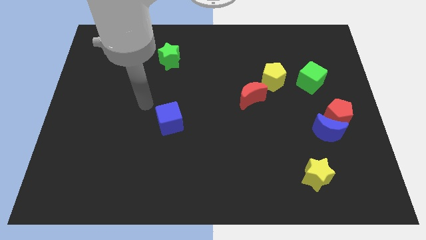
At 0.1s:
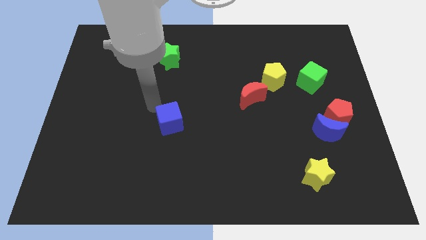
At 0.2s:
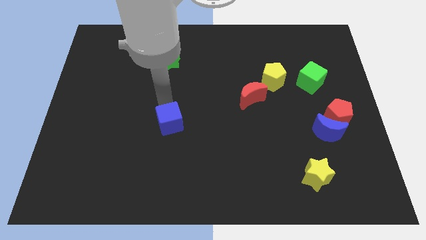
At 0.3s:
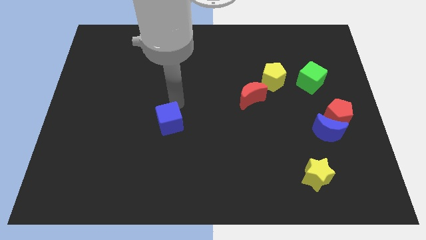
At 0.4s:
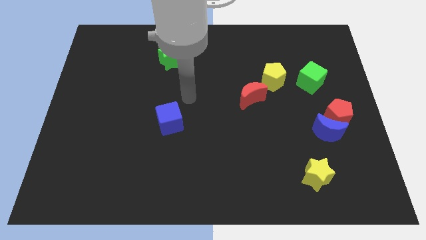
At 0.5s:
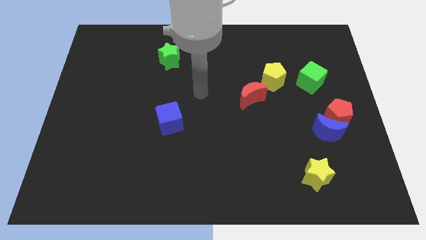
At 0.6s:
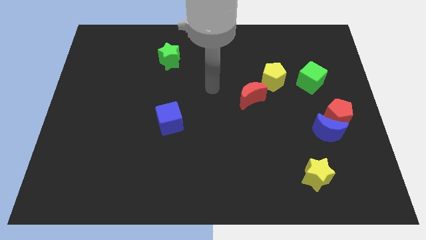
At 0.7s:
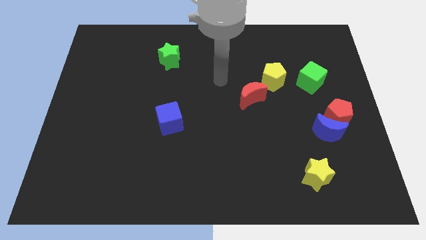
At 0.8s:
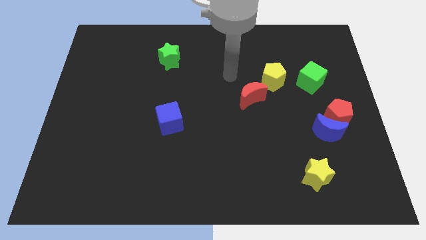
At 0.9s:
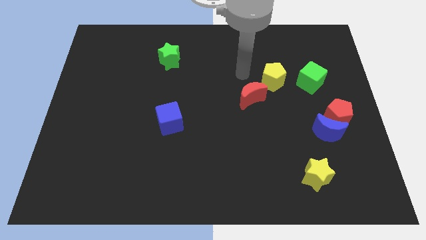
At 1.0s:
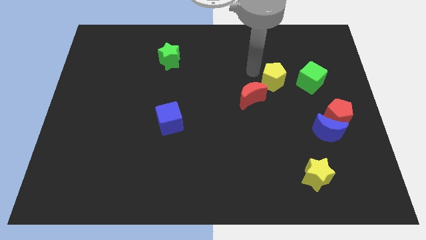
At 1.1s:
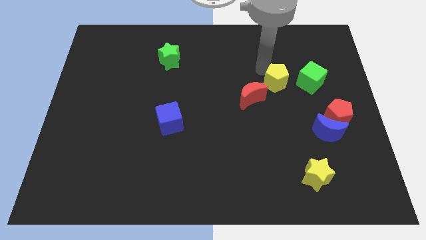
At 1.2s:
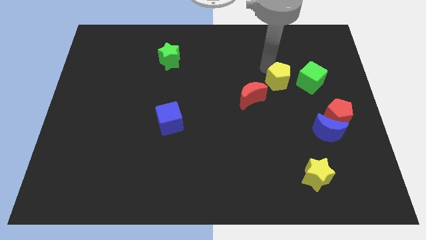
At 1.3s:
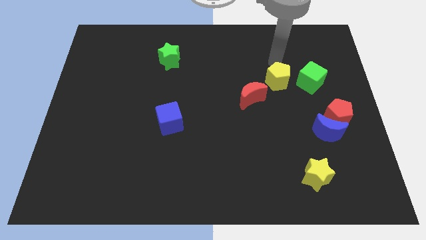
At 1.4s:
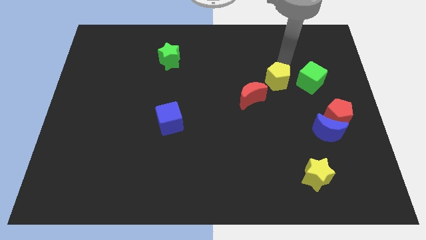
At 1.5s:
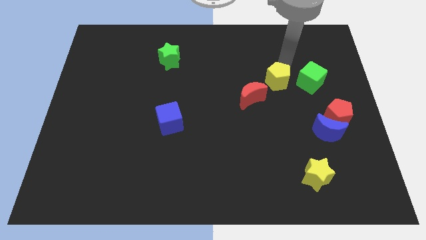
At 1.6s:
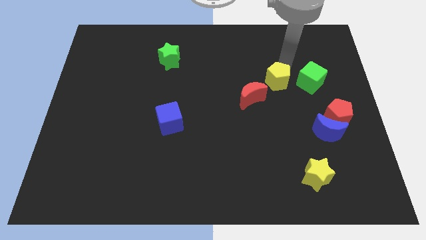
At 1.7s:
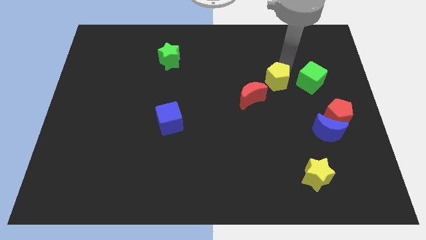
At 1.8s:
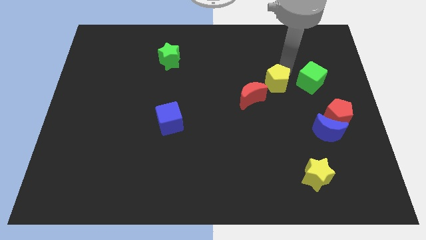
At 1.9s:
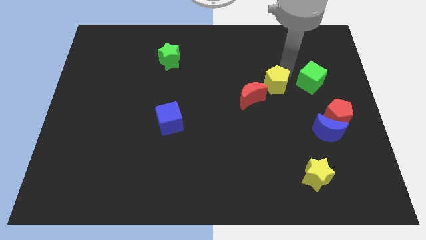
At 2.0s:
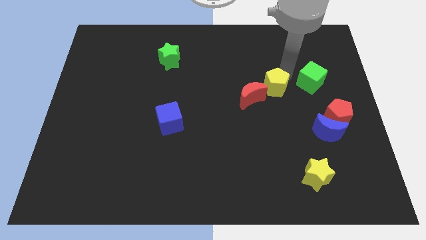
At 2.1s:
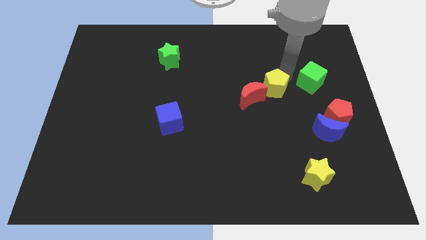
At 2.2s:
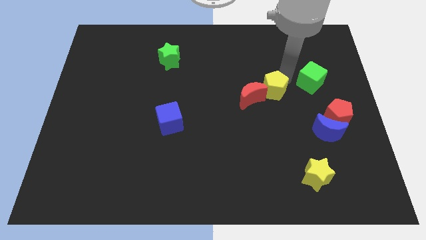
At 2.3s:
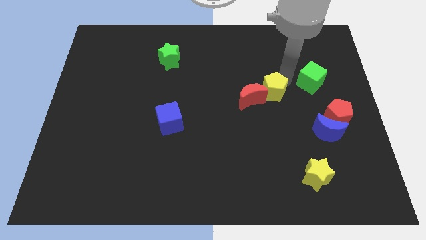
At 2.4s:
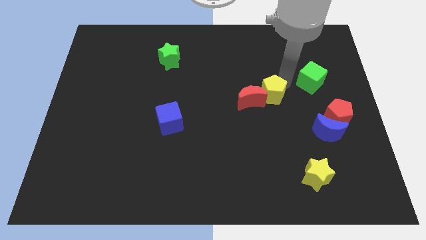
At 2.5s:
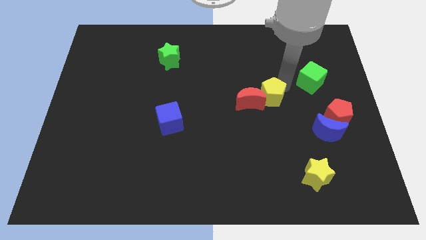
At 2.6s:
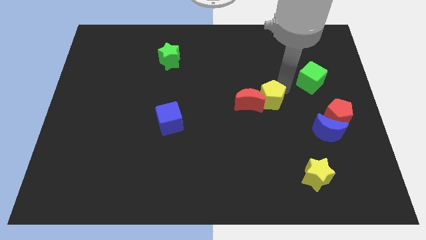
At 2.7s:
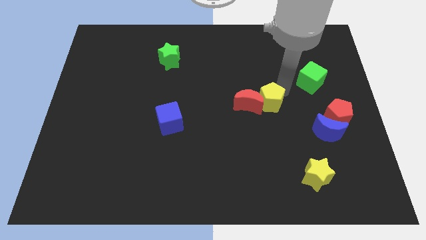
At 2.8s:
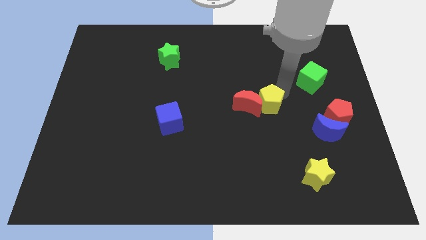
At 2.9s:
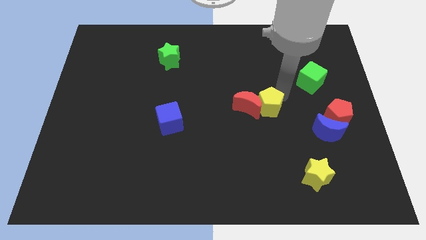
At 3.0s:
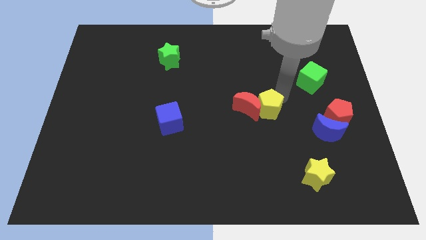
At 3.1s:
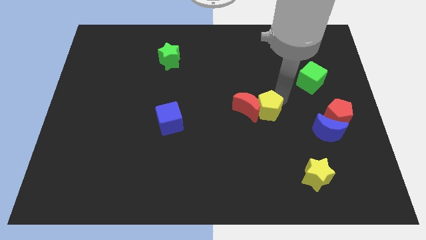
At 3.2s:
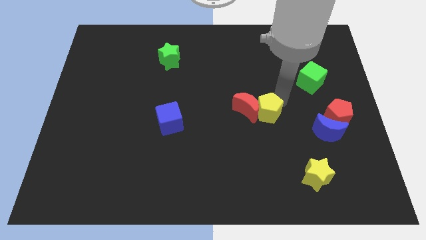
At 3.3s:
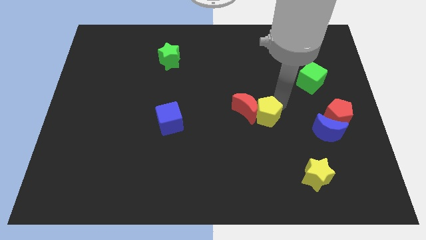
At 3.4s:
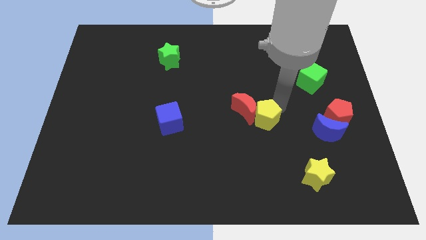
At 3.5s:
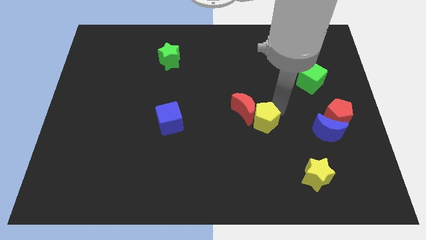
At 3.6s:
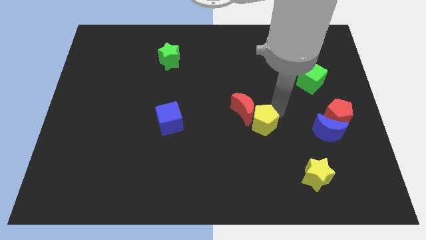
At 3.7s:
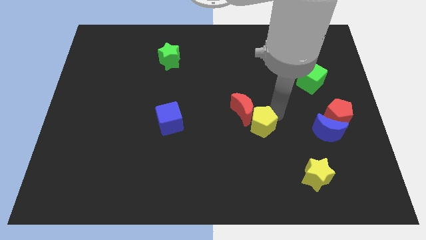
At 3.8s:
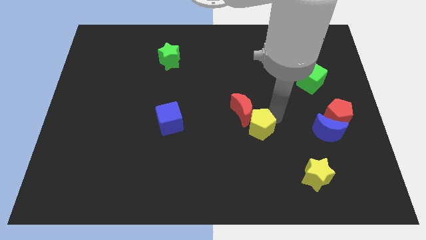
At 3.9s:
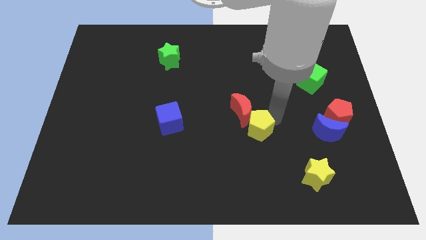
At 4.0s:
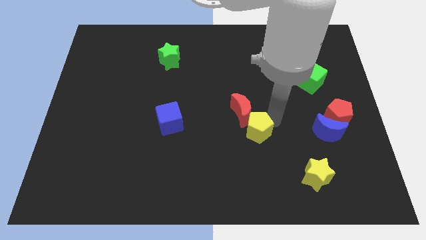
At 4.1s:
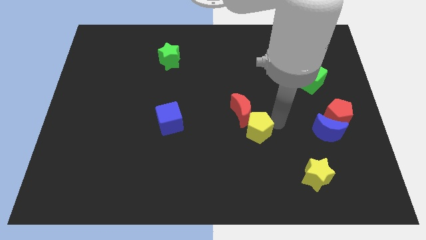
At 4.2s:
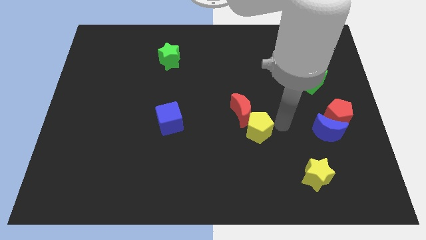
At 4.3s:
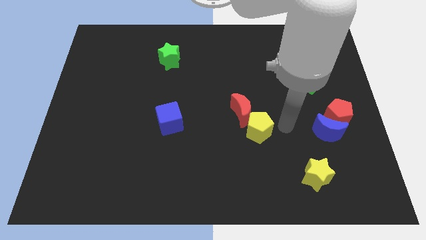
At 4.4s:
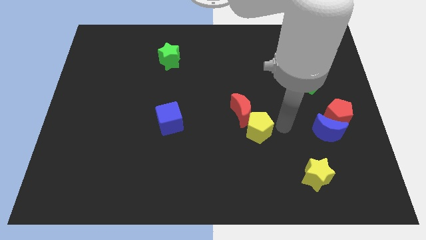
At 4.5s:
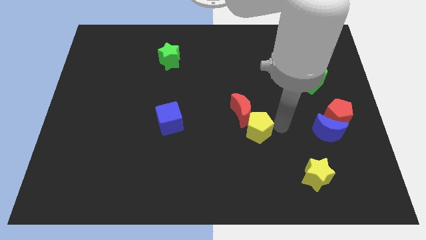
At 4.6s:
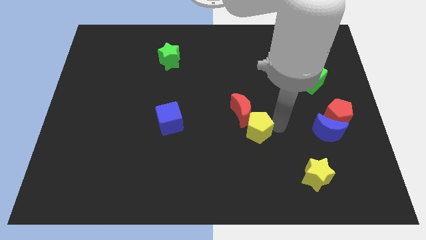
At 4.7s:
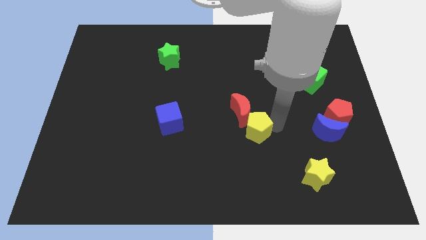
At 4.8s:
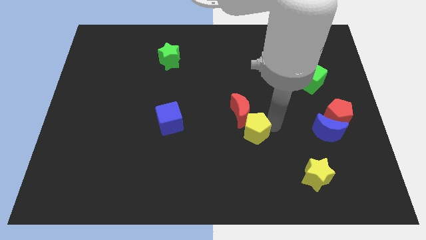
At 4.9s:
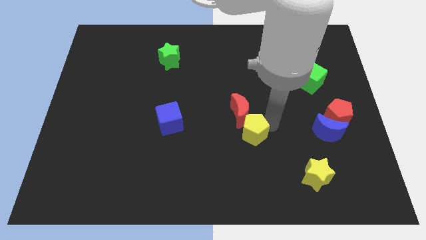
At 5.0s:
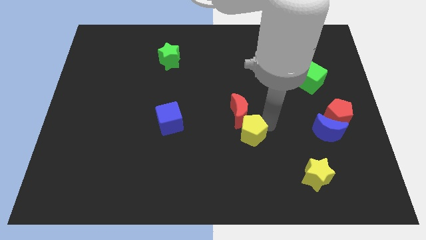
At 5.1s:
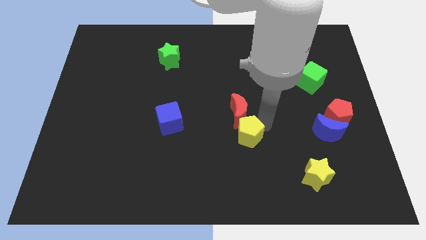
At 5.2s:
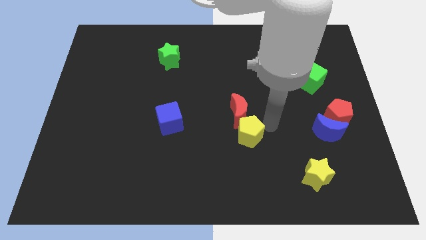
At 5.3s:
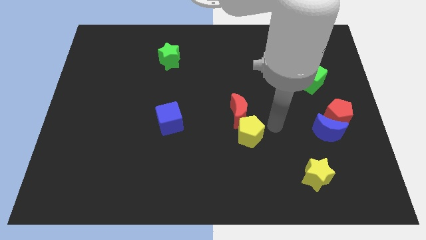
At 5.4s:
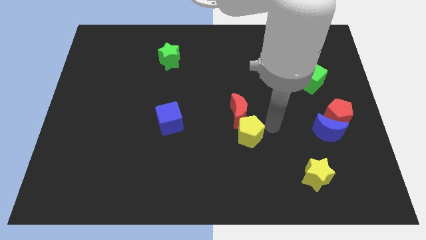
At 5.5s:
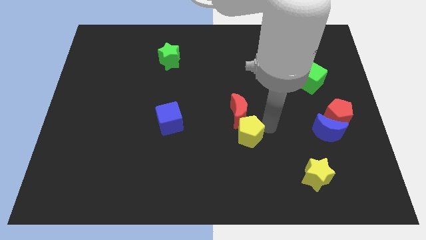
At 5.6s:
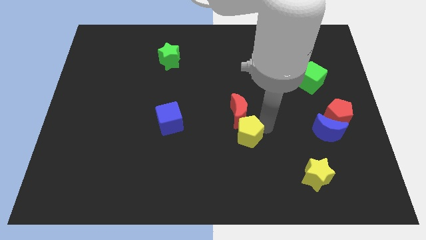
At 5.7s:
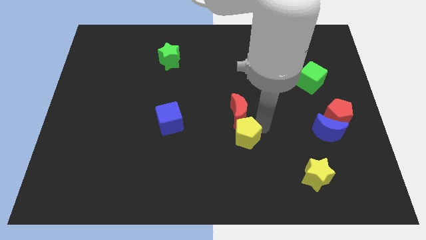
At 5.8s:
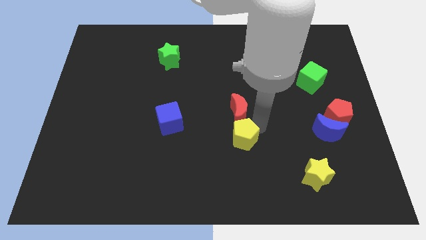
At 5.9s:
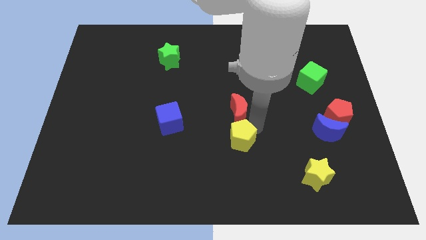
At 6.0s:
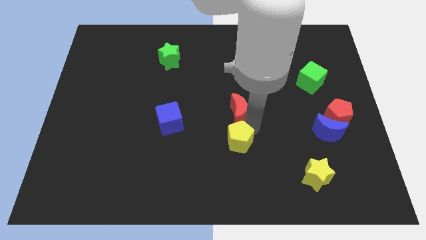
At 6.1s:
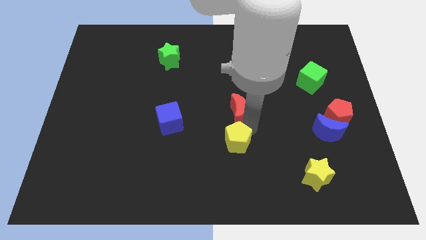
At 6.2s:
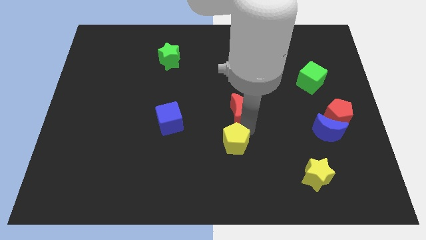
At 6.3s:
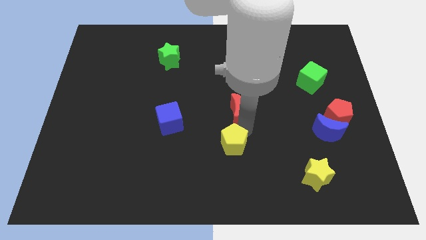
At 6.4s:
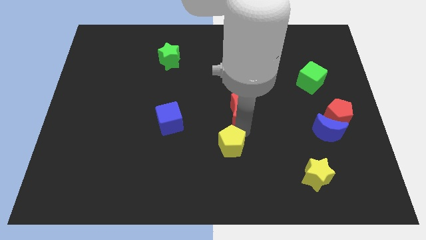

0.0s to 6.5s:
move the yellow pentagon downwards and left

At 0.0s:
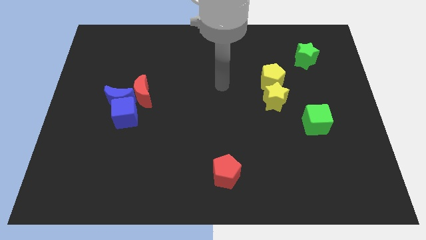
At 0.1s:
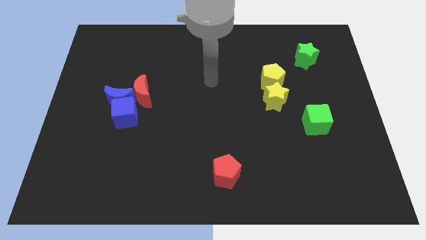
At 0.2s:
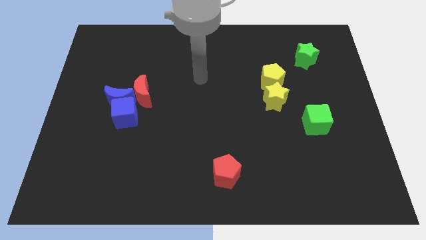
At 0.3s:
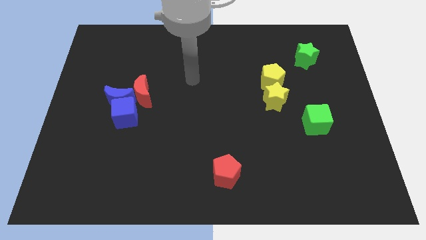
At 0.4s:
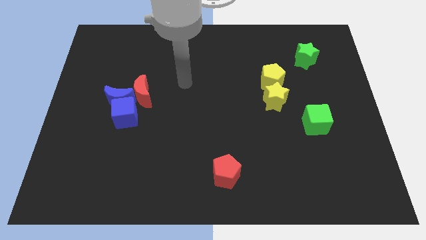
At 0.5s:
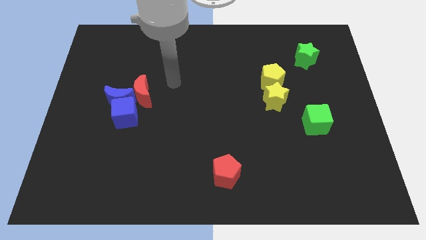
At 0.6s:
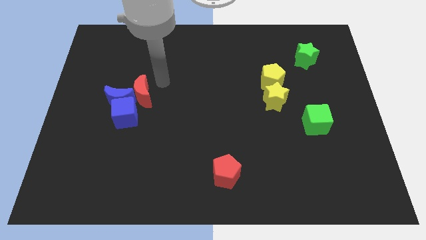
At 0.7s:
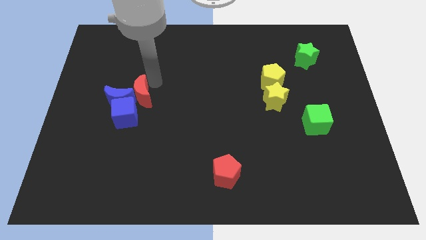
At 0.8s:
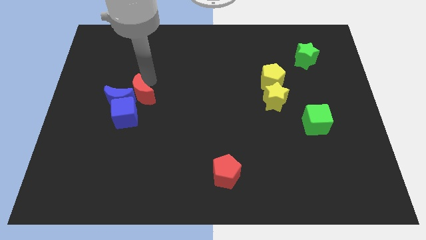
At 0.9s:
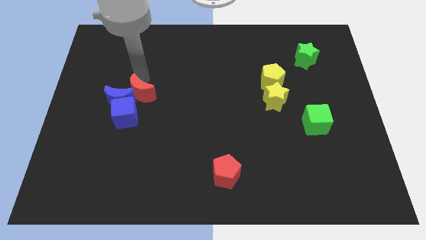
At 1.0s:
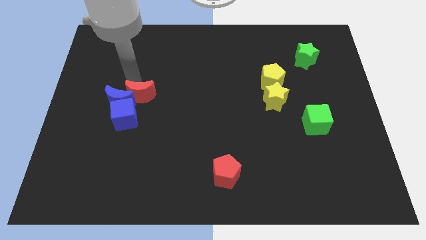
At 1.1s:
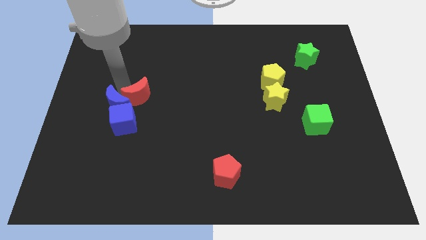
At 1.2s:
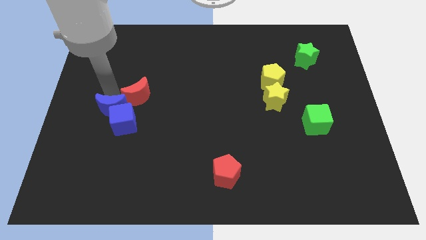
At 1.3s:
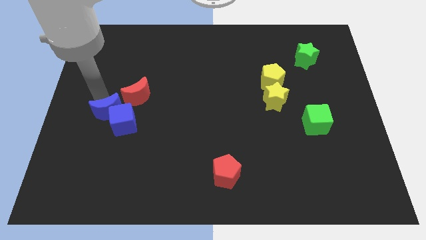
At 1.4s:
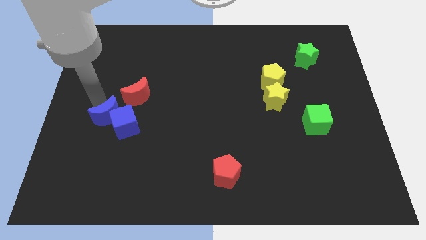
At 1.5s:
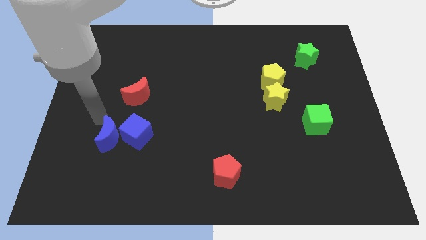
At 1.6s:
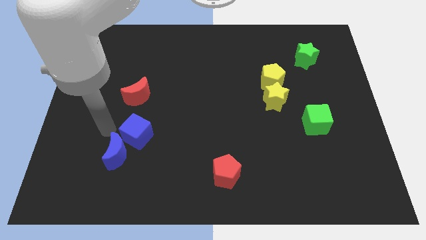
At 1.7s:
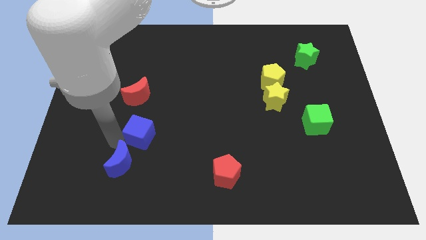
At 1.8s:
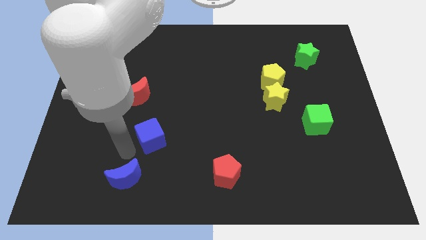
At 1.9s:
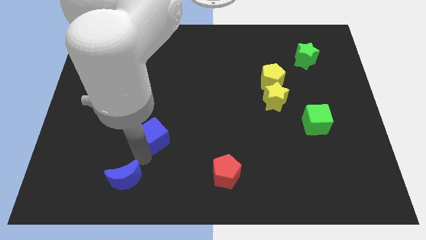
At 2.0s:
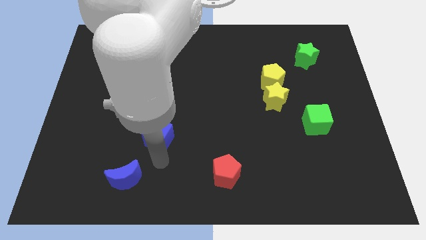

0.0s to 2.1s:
push the blue cube somewhat right

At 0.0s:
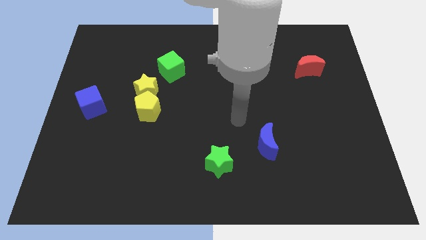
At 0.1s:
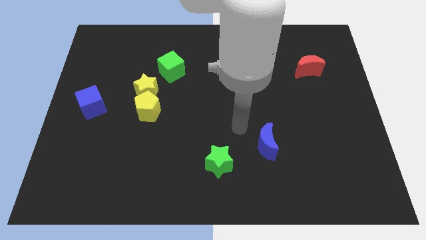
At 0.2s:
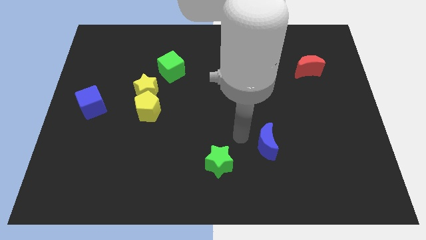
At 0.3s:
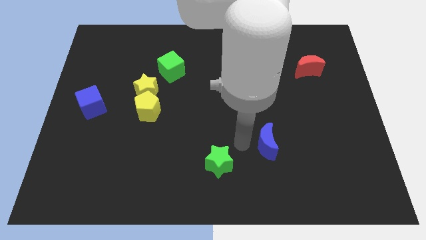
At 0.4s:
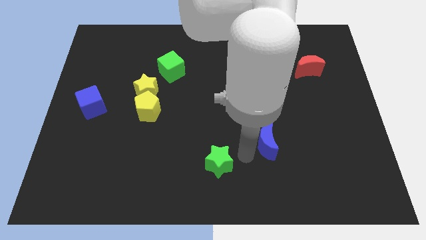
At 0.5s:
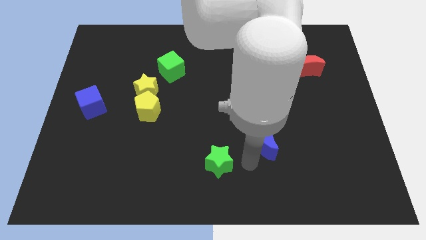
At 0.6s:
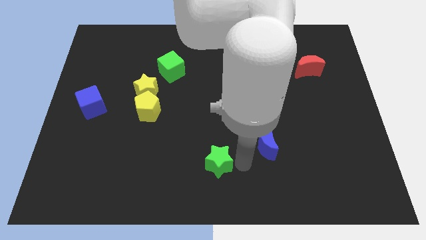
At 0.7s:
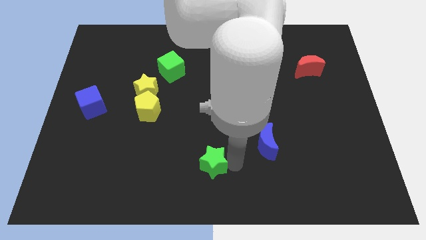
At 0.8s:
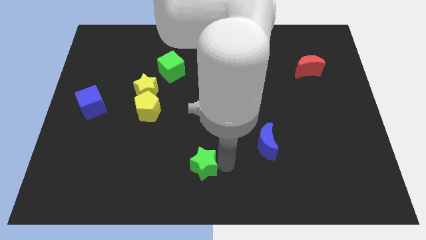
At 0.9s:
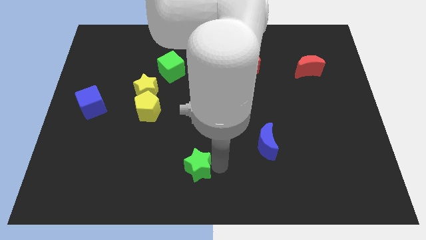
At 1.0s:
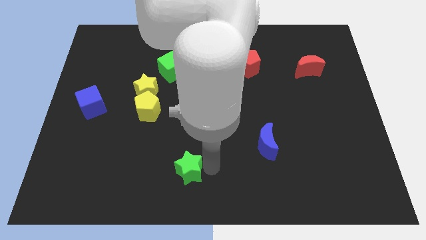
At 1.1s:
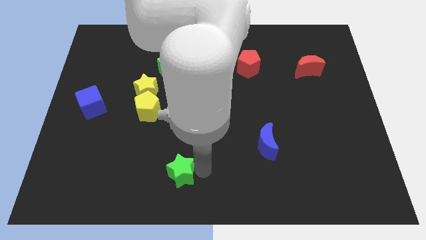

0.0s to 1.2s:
slightly move the green star to the left
